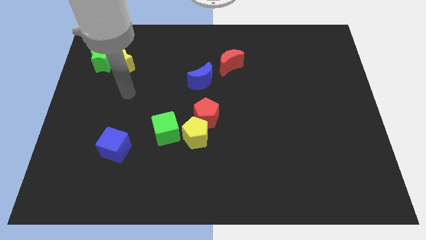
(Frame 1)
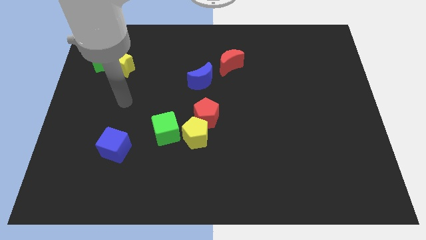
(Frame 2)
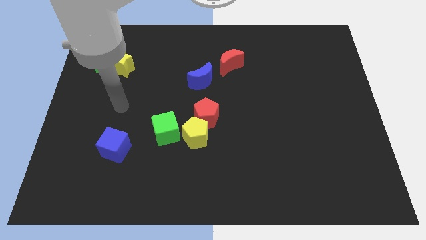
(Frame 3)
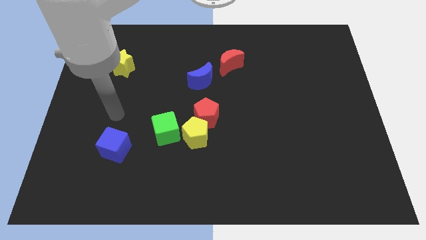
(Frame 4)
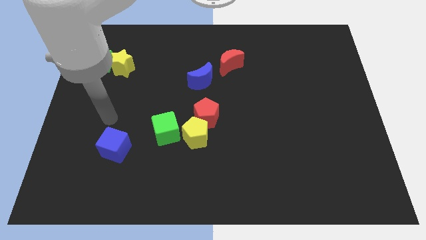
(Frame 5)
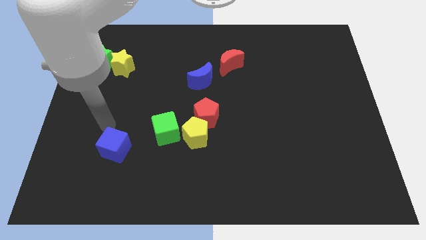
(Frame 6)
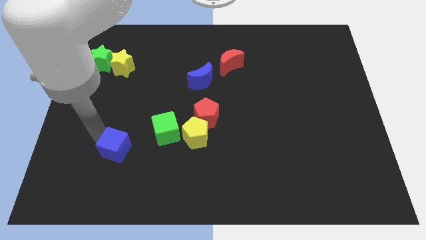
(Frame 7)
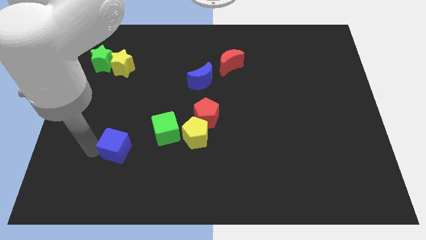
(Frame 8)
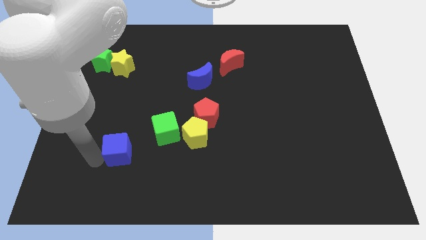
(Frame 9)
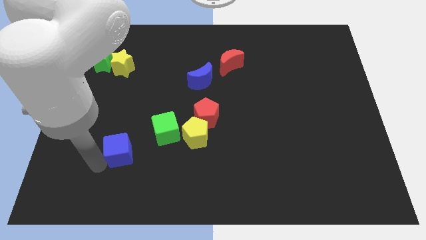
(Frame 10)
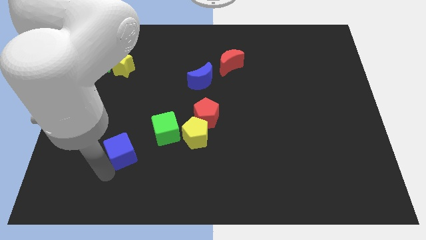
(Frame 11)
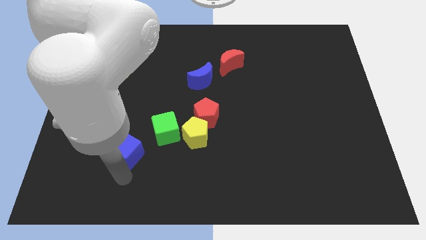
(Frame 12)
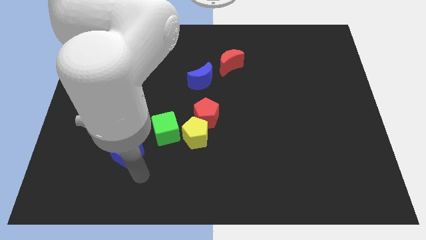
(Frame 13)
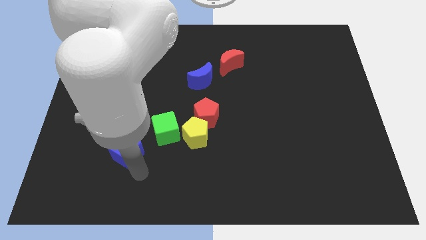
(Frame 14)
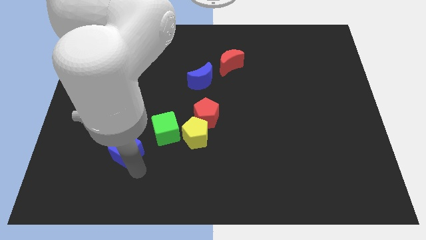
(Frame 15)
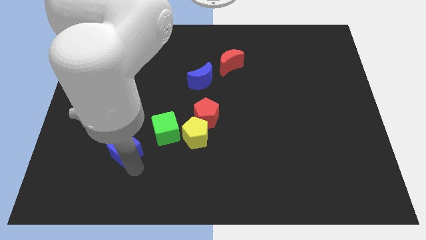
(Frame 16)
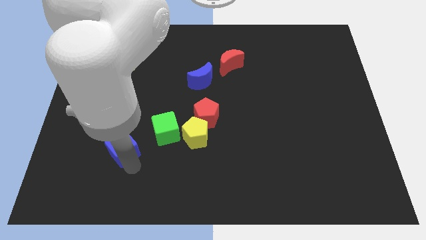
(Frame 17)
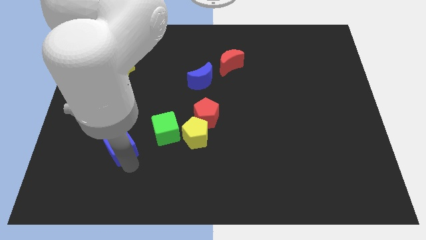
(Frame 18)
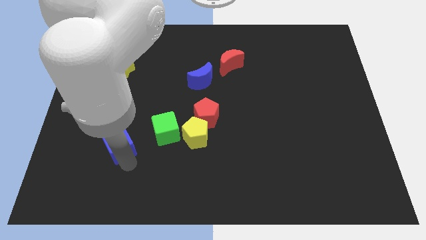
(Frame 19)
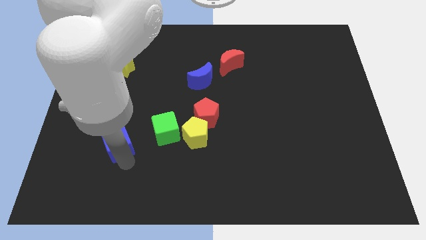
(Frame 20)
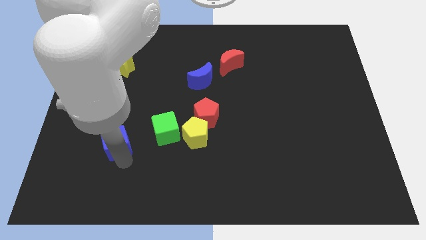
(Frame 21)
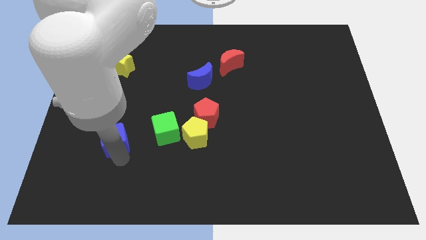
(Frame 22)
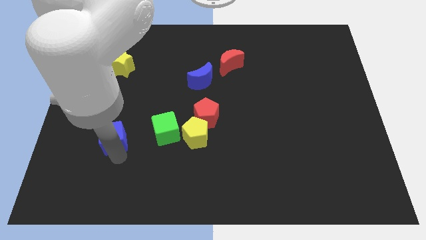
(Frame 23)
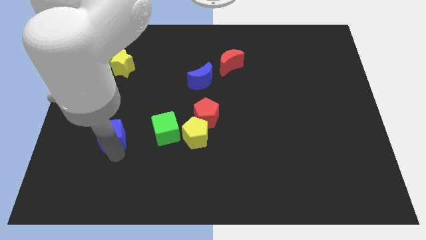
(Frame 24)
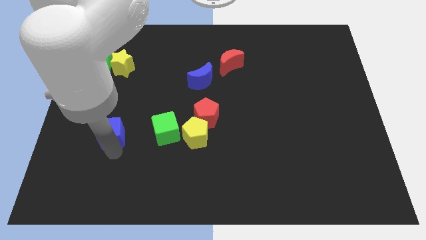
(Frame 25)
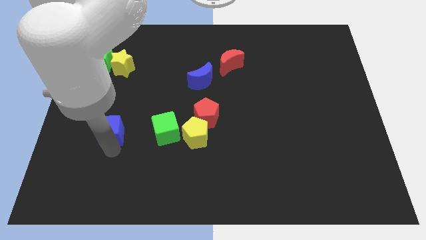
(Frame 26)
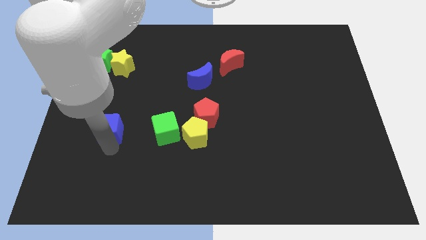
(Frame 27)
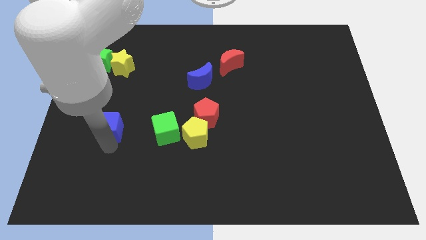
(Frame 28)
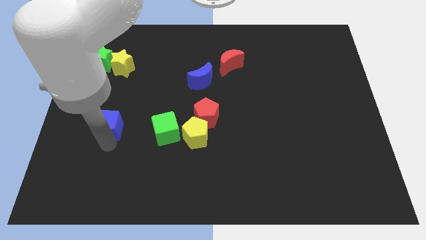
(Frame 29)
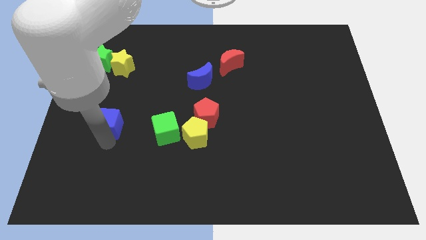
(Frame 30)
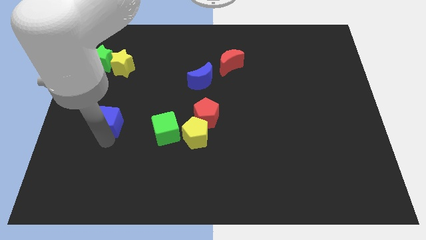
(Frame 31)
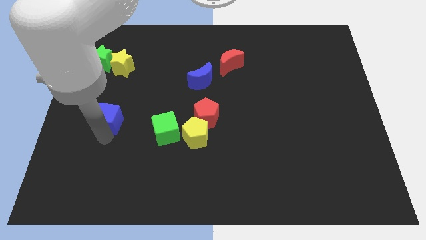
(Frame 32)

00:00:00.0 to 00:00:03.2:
push the blue cube a little bit upwards

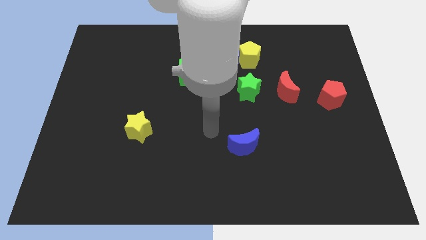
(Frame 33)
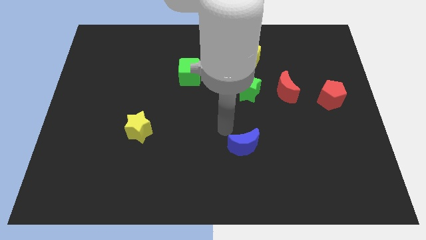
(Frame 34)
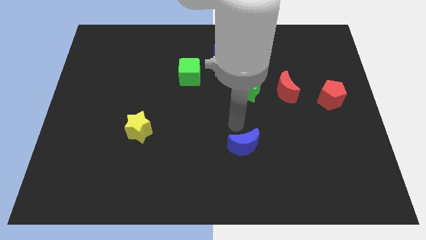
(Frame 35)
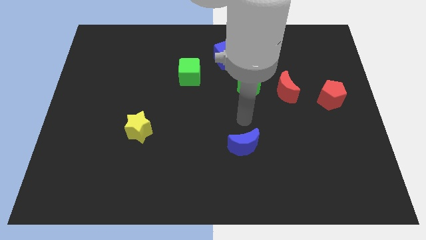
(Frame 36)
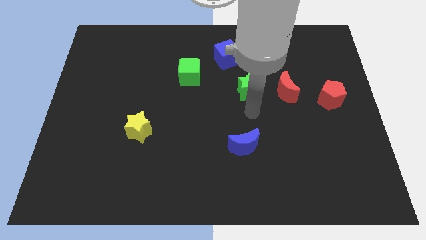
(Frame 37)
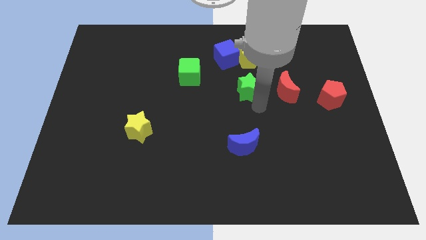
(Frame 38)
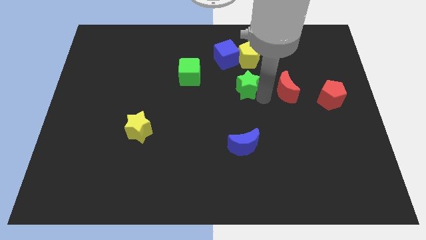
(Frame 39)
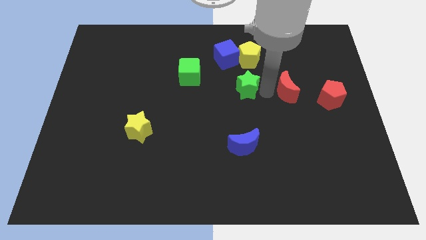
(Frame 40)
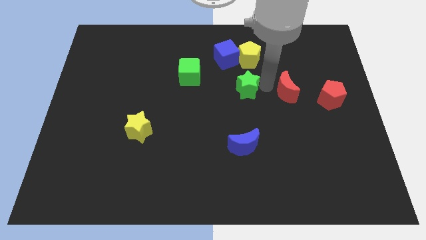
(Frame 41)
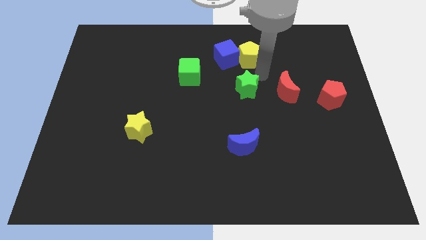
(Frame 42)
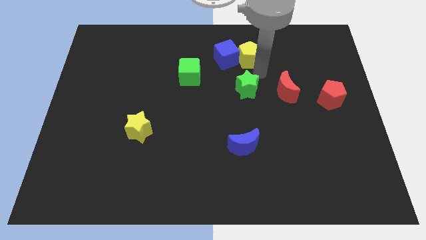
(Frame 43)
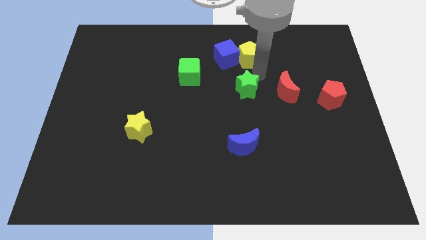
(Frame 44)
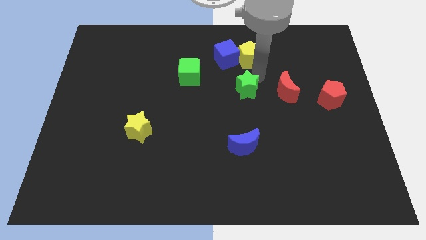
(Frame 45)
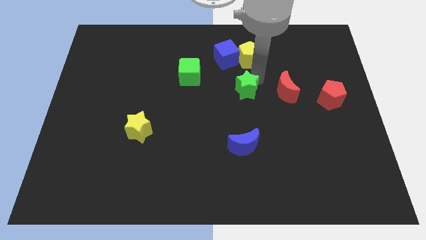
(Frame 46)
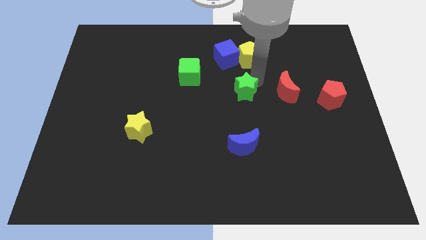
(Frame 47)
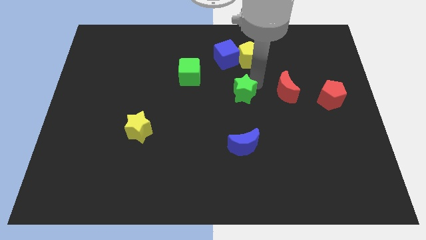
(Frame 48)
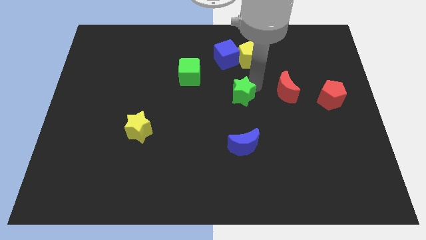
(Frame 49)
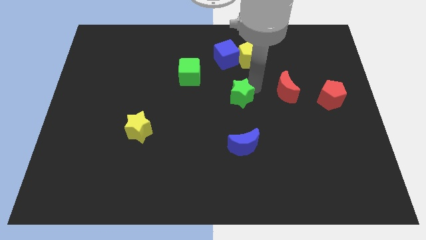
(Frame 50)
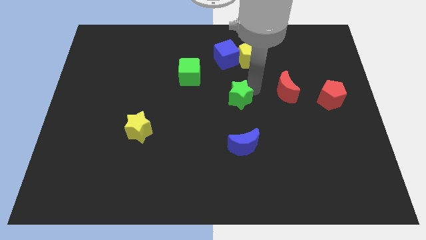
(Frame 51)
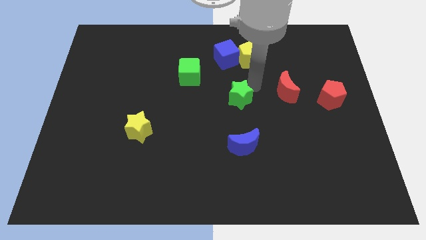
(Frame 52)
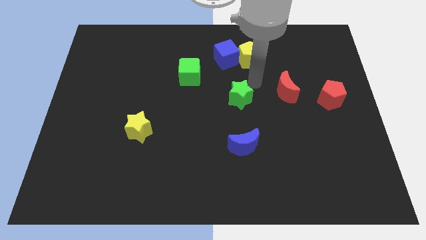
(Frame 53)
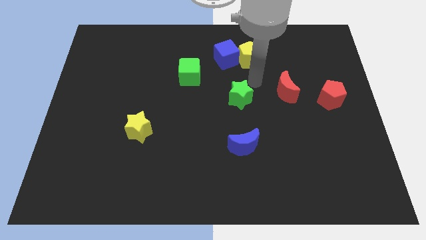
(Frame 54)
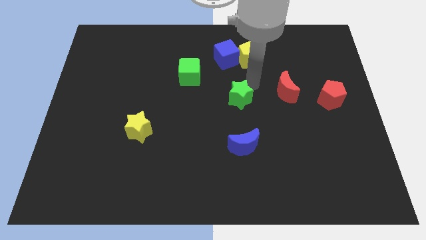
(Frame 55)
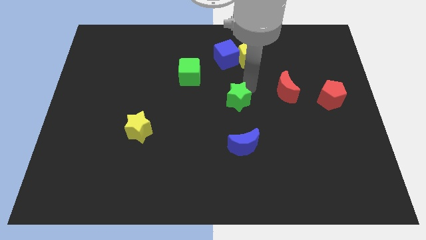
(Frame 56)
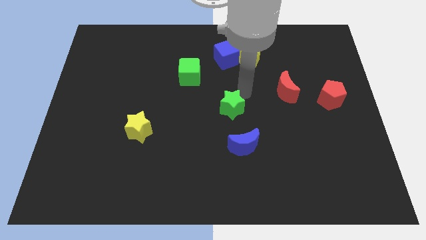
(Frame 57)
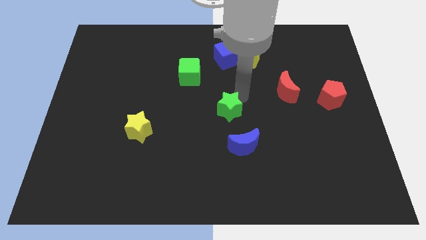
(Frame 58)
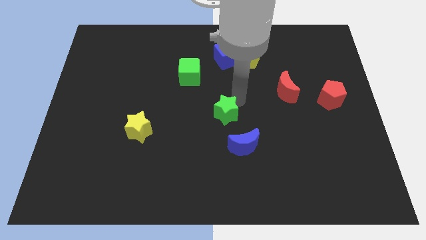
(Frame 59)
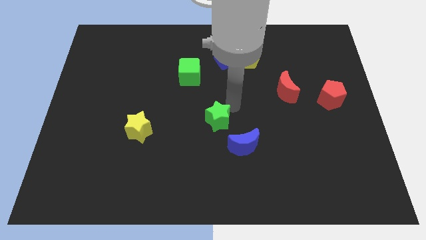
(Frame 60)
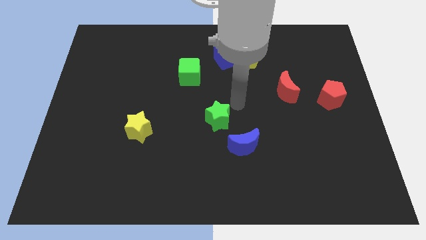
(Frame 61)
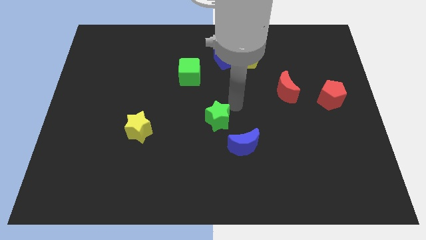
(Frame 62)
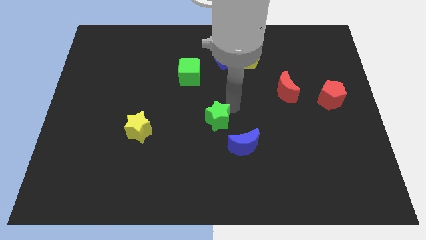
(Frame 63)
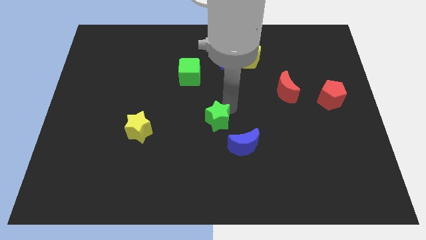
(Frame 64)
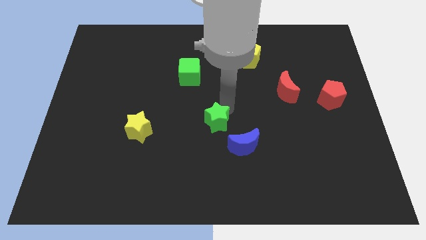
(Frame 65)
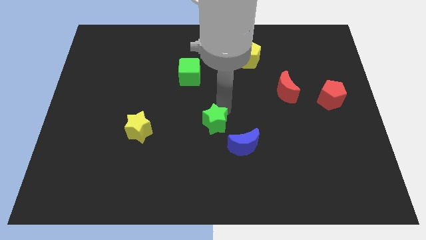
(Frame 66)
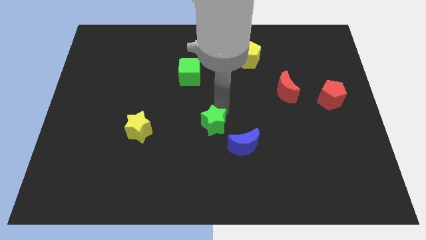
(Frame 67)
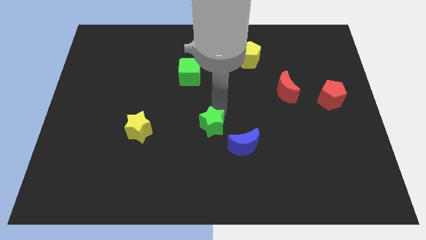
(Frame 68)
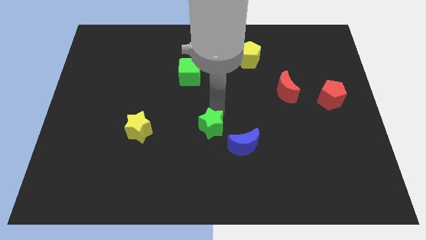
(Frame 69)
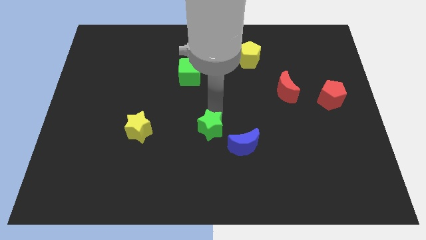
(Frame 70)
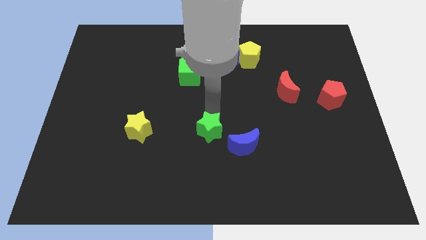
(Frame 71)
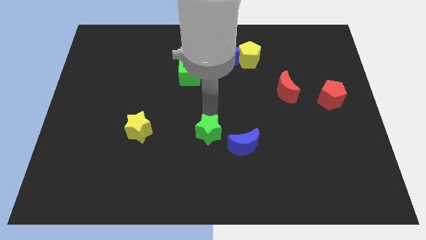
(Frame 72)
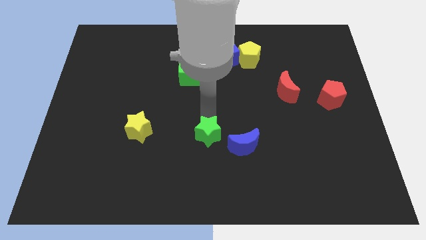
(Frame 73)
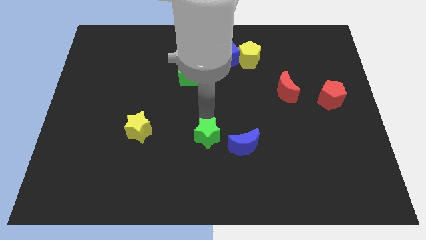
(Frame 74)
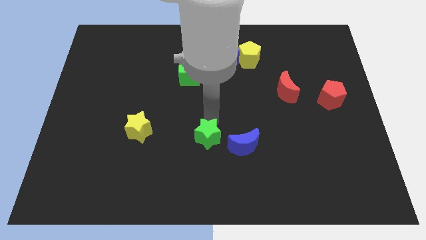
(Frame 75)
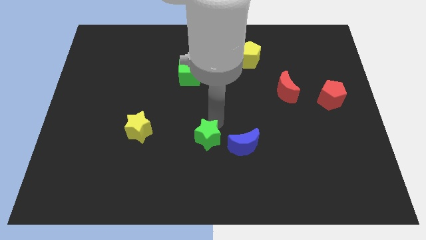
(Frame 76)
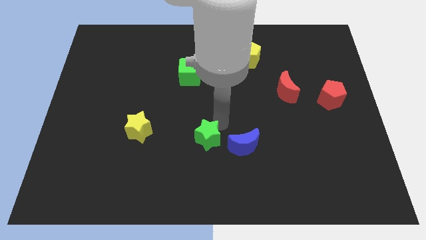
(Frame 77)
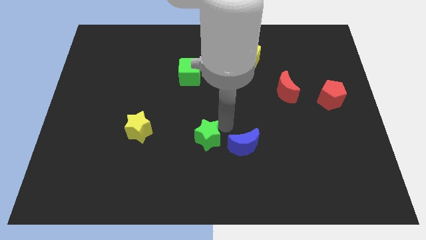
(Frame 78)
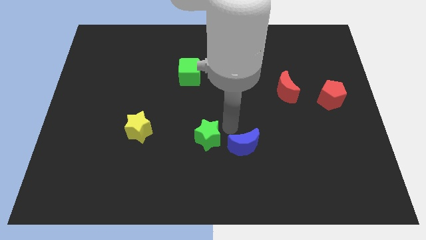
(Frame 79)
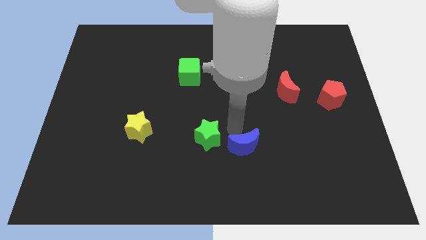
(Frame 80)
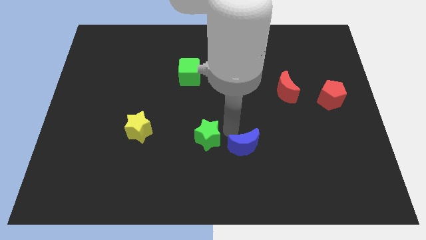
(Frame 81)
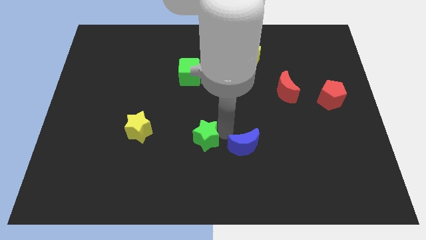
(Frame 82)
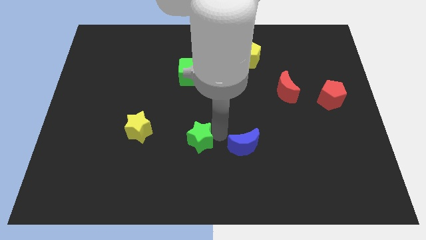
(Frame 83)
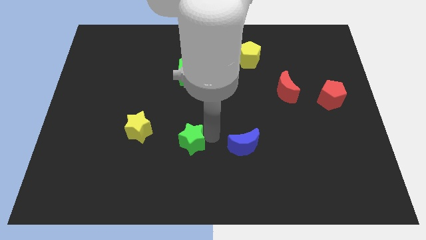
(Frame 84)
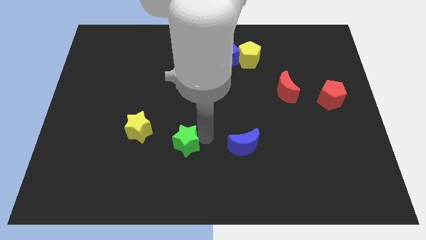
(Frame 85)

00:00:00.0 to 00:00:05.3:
move the green star down and to the left diagonally
